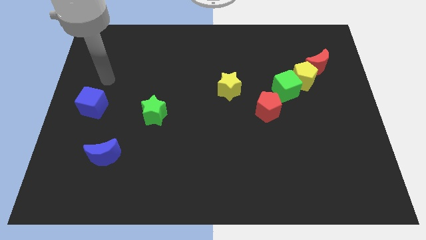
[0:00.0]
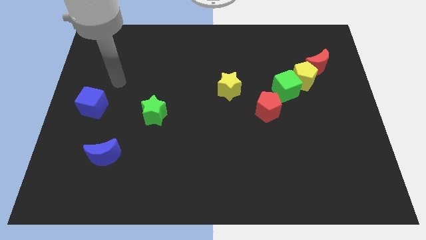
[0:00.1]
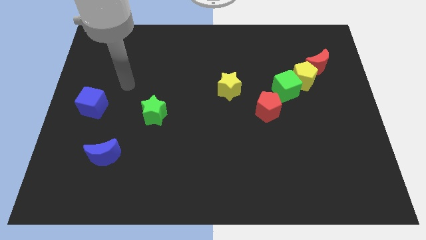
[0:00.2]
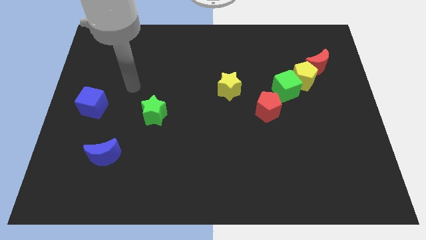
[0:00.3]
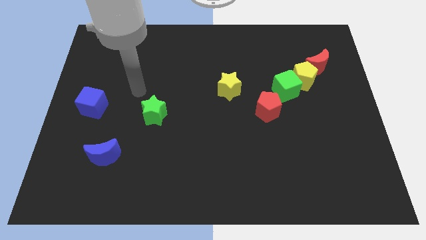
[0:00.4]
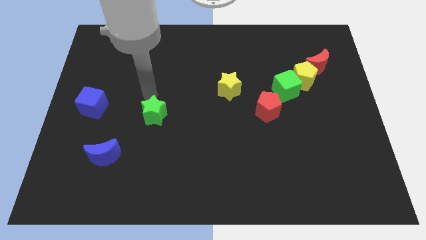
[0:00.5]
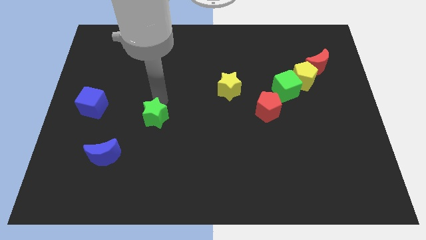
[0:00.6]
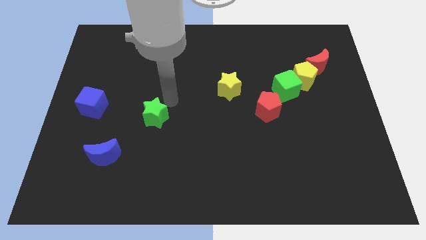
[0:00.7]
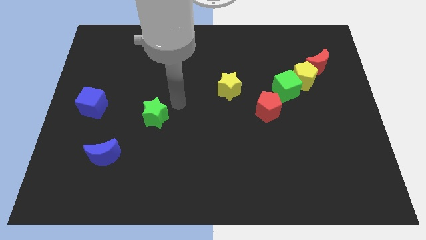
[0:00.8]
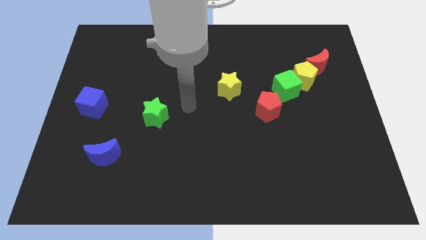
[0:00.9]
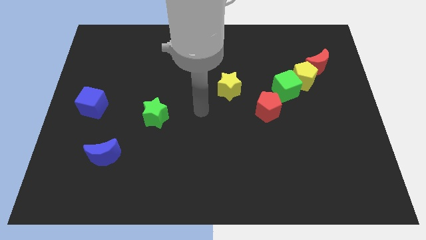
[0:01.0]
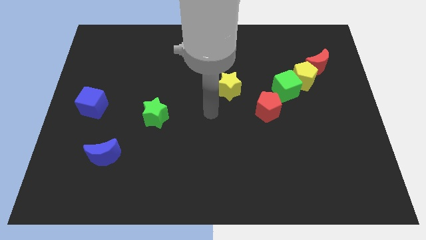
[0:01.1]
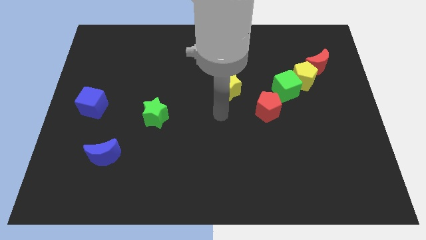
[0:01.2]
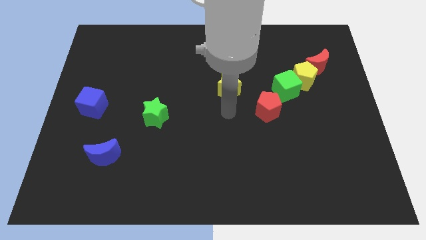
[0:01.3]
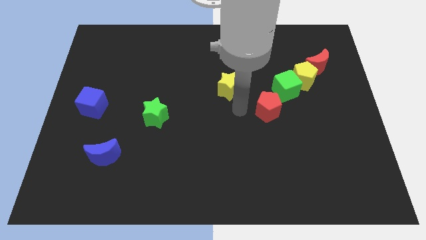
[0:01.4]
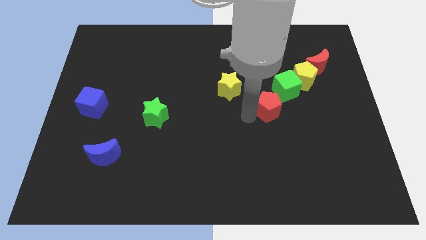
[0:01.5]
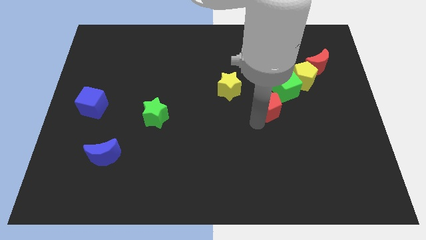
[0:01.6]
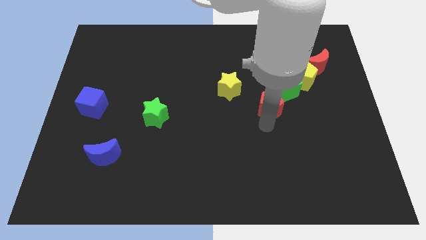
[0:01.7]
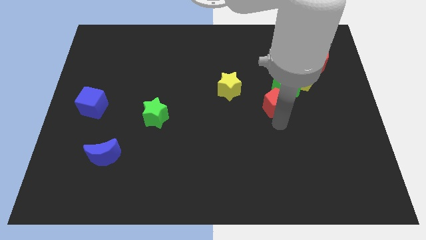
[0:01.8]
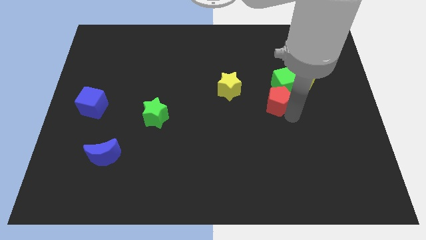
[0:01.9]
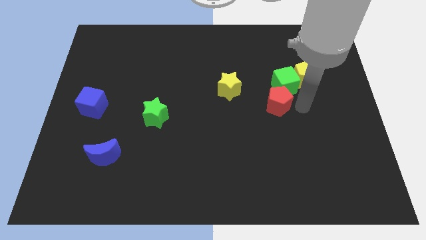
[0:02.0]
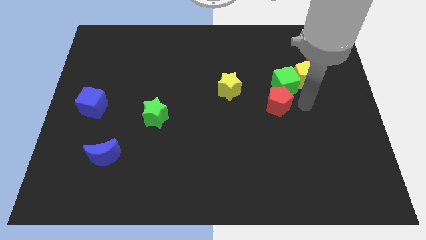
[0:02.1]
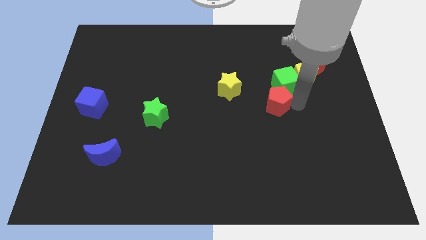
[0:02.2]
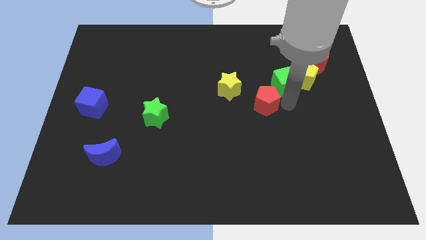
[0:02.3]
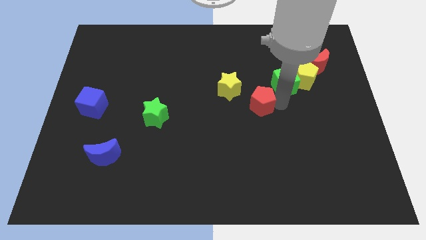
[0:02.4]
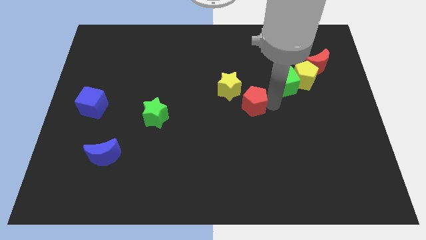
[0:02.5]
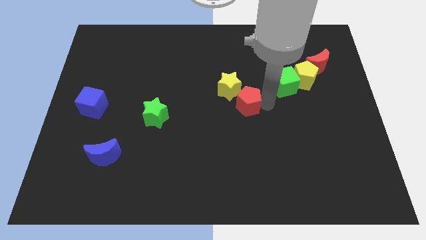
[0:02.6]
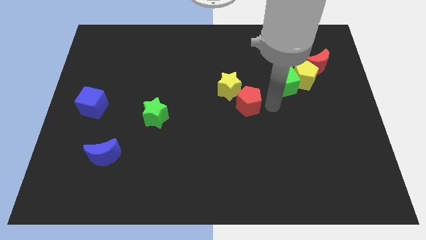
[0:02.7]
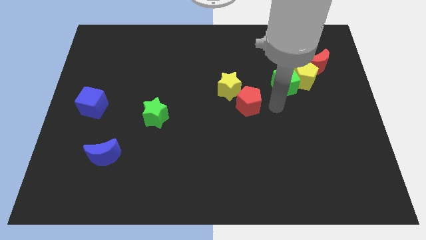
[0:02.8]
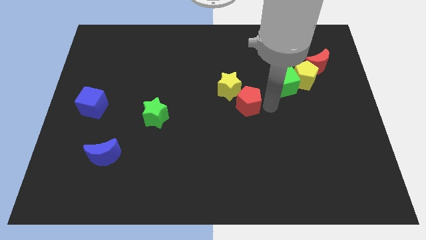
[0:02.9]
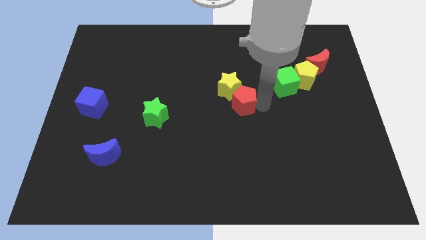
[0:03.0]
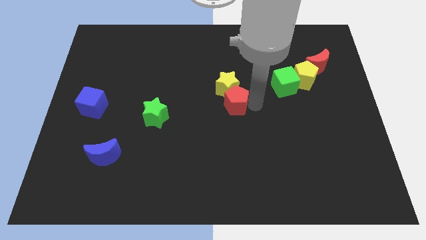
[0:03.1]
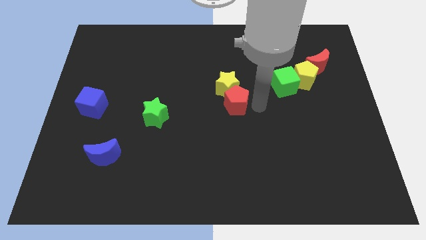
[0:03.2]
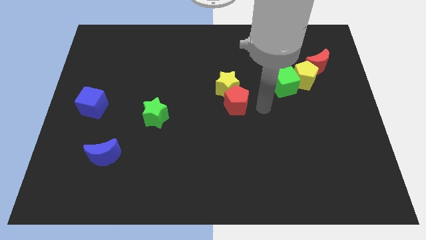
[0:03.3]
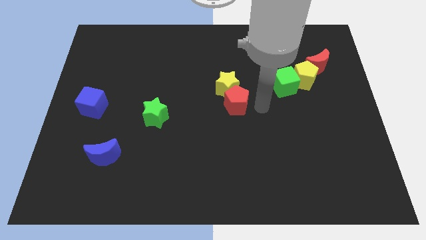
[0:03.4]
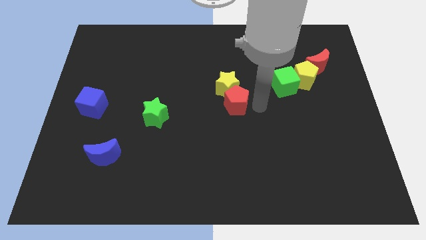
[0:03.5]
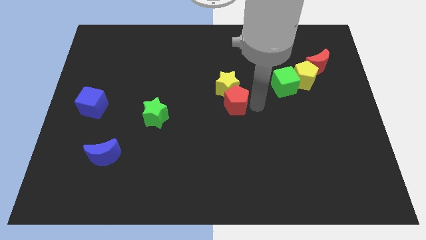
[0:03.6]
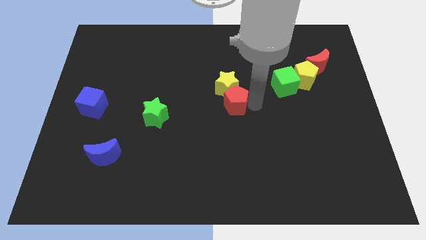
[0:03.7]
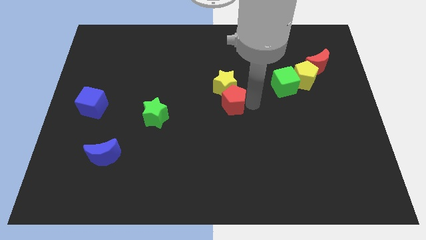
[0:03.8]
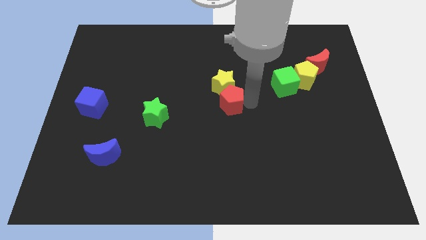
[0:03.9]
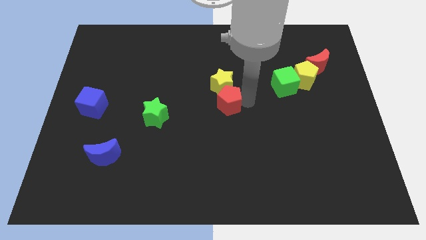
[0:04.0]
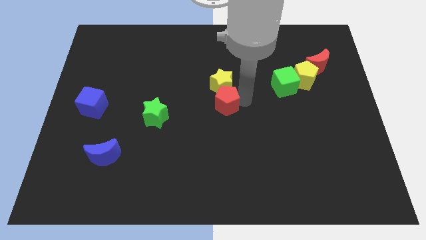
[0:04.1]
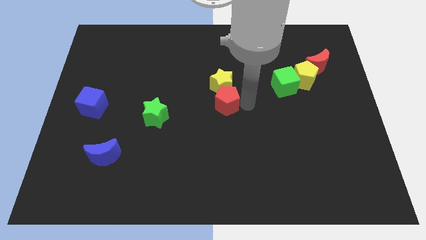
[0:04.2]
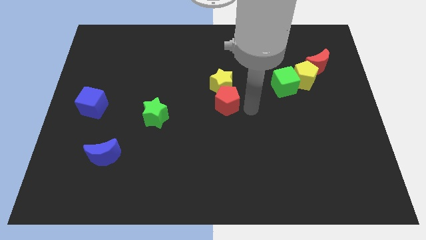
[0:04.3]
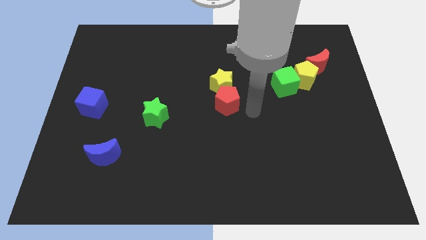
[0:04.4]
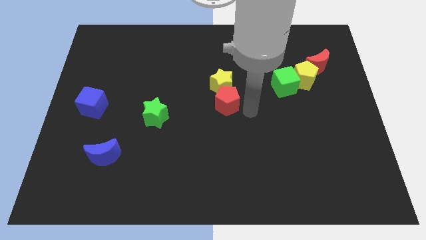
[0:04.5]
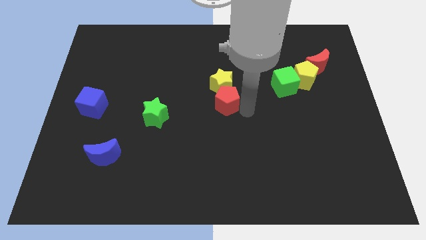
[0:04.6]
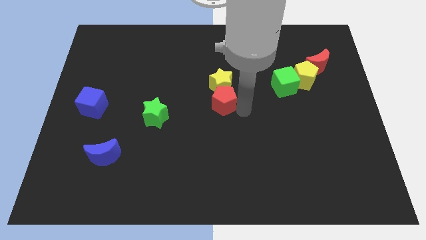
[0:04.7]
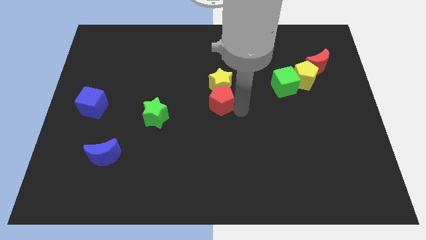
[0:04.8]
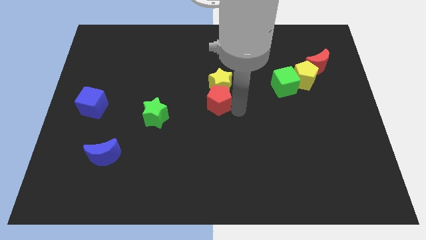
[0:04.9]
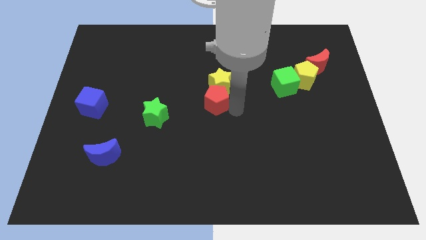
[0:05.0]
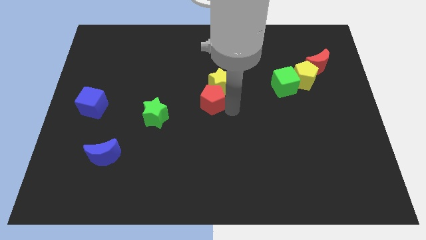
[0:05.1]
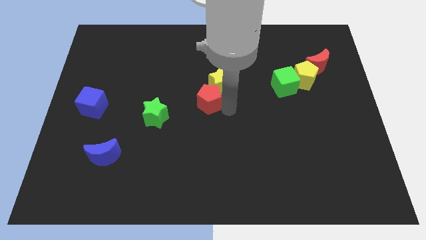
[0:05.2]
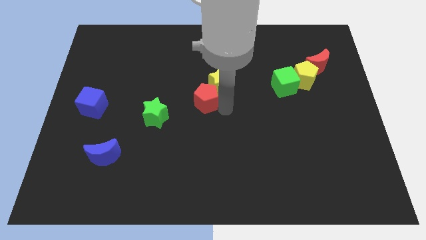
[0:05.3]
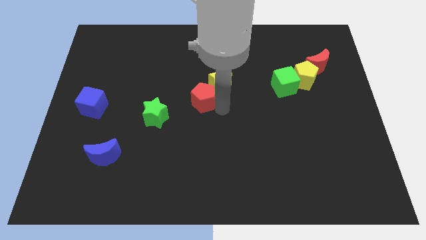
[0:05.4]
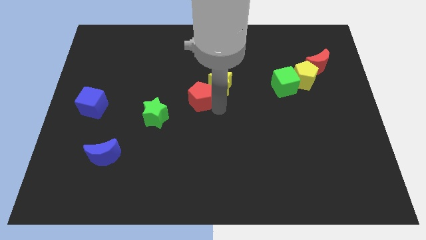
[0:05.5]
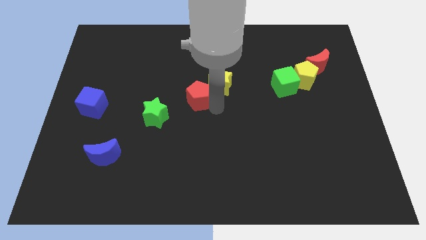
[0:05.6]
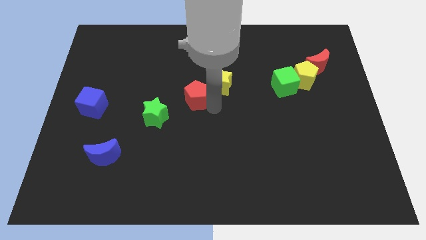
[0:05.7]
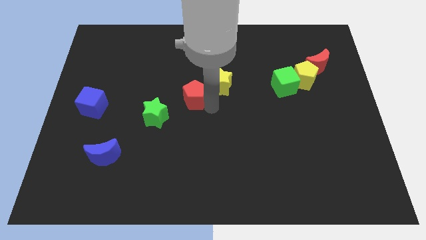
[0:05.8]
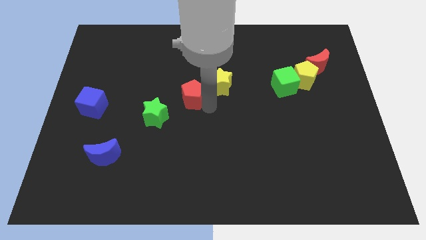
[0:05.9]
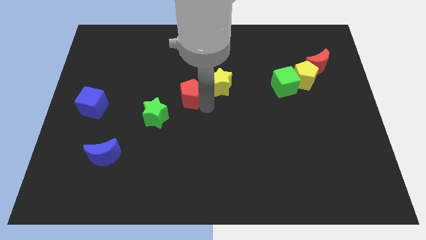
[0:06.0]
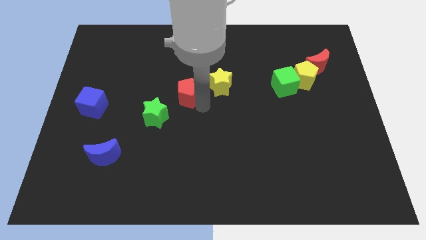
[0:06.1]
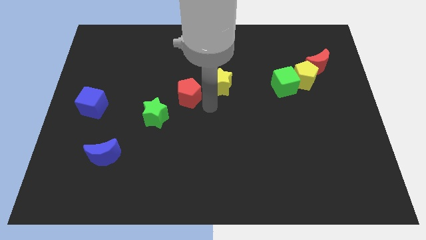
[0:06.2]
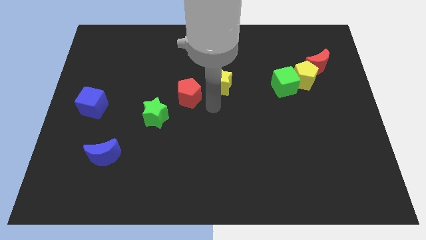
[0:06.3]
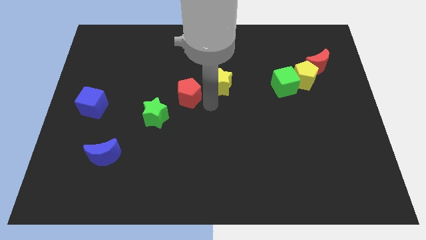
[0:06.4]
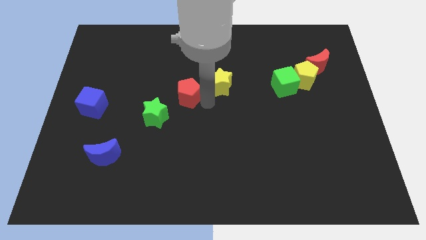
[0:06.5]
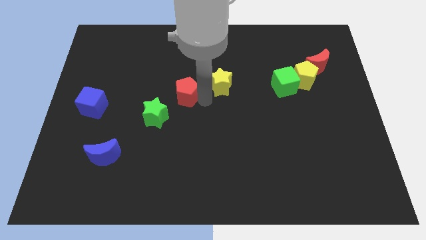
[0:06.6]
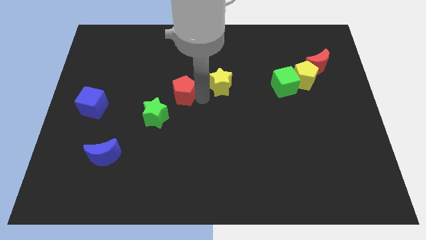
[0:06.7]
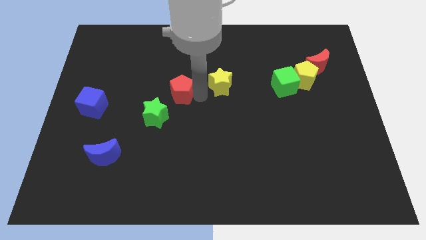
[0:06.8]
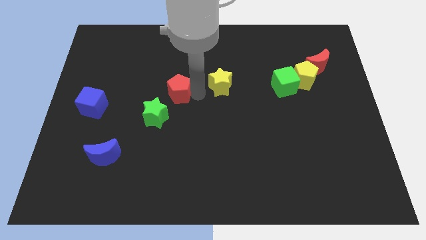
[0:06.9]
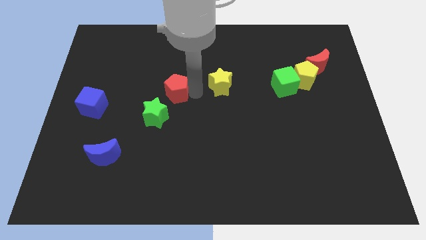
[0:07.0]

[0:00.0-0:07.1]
slide the red pentagon above the green star
